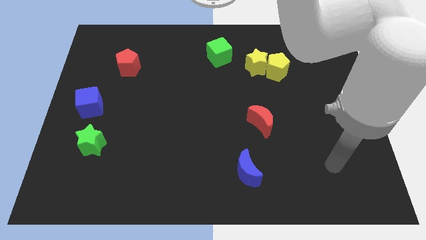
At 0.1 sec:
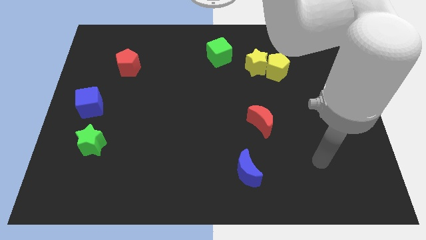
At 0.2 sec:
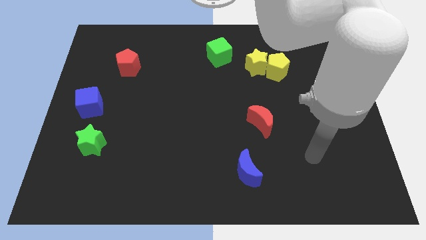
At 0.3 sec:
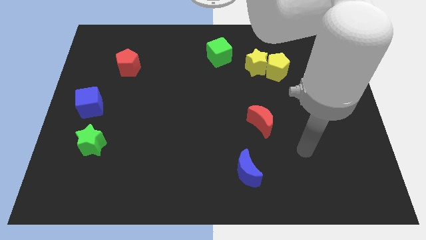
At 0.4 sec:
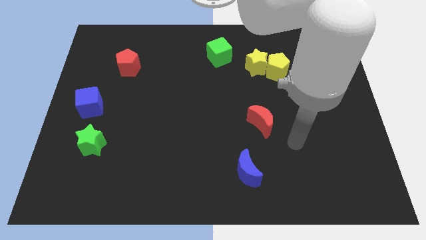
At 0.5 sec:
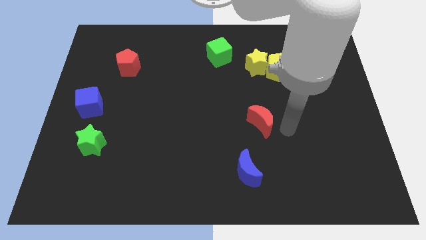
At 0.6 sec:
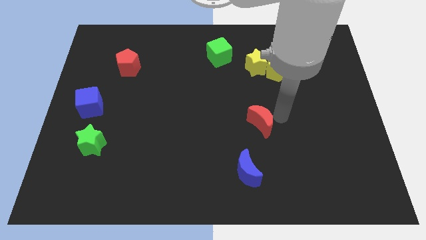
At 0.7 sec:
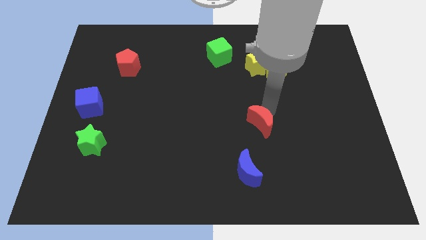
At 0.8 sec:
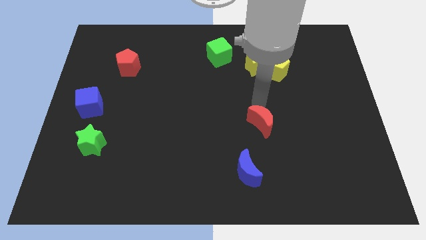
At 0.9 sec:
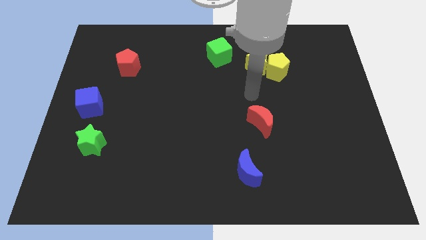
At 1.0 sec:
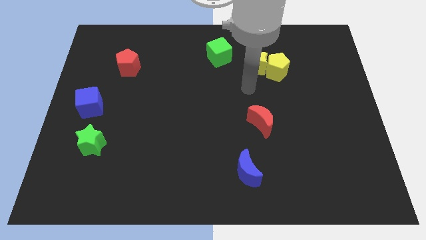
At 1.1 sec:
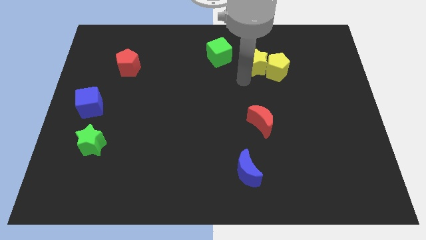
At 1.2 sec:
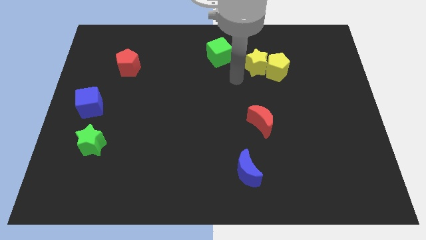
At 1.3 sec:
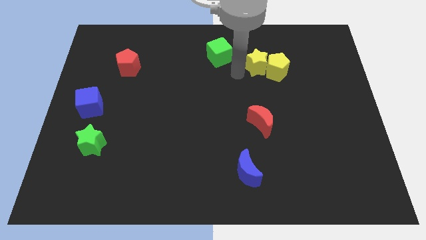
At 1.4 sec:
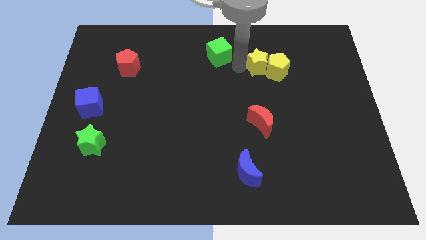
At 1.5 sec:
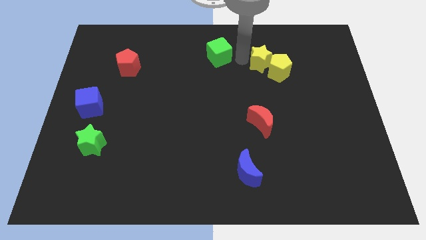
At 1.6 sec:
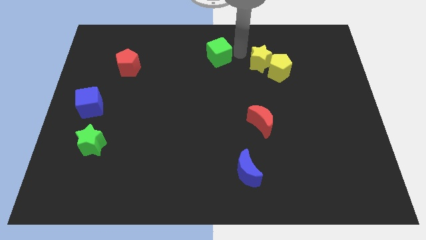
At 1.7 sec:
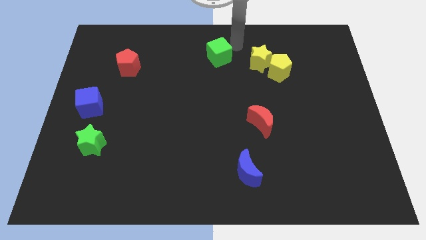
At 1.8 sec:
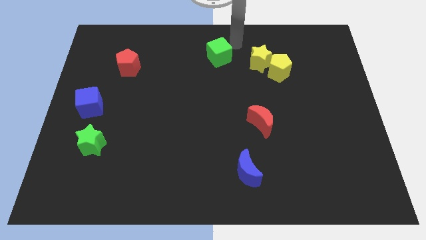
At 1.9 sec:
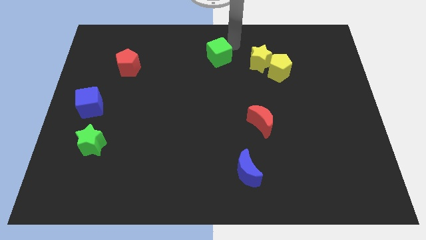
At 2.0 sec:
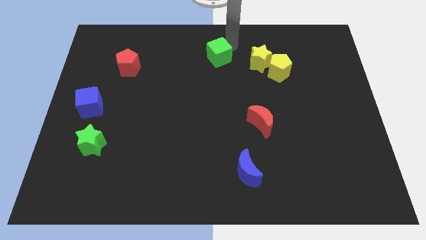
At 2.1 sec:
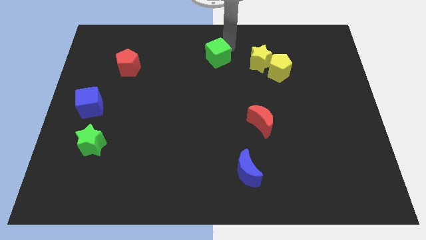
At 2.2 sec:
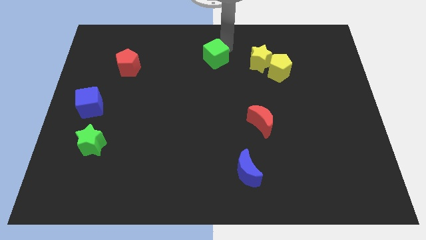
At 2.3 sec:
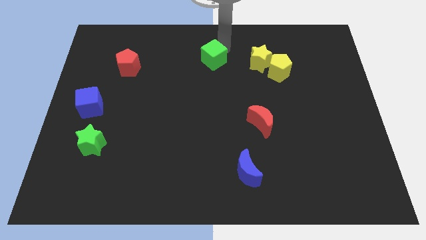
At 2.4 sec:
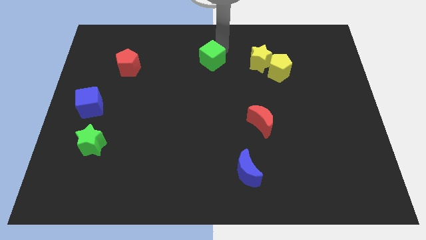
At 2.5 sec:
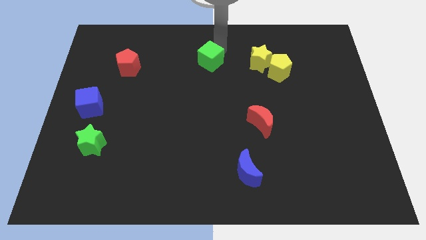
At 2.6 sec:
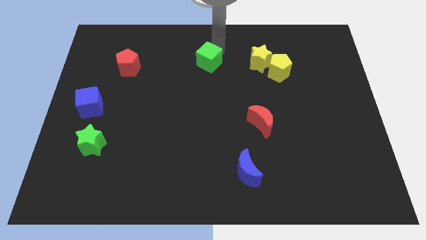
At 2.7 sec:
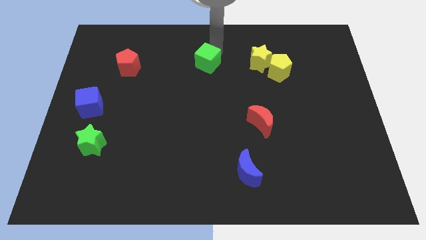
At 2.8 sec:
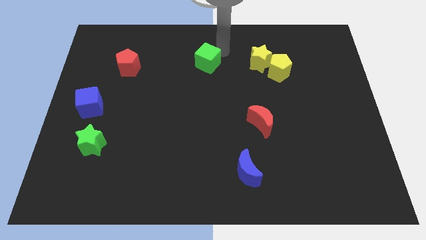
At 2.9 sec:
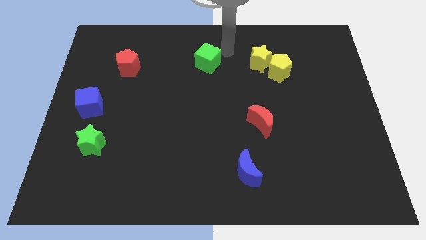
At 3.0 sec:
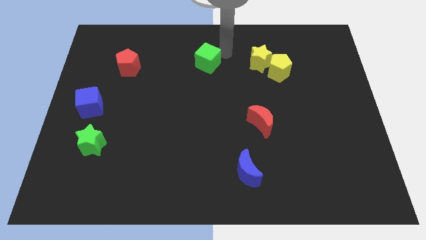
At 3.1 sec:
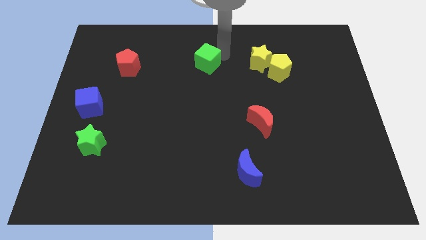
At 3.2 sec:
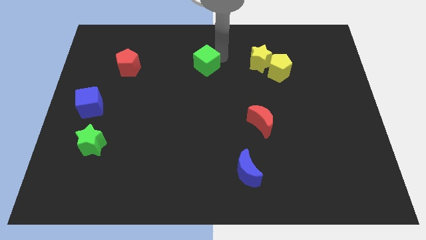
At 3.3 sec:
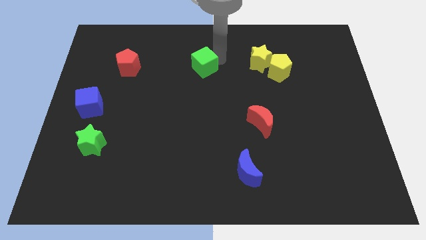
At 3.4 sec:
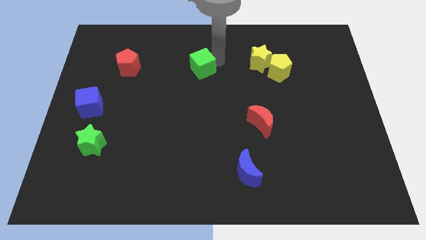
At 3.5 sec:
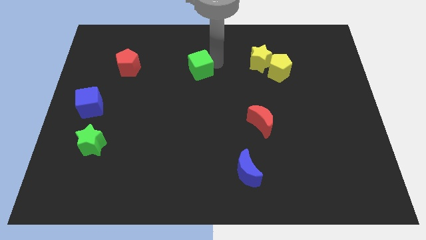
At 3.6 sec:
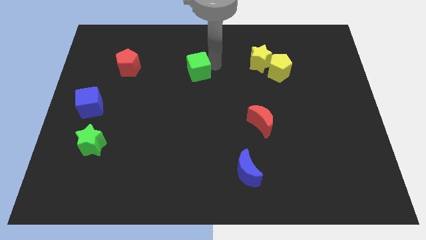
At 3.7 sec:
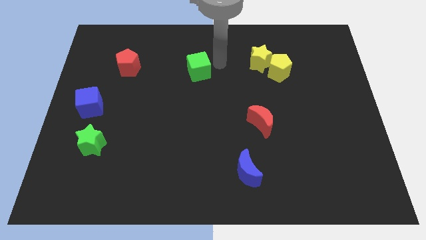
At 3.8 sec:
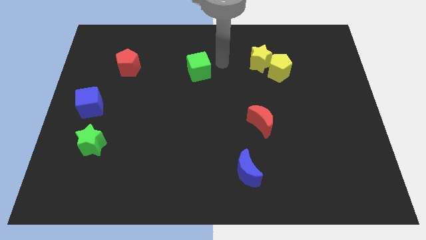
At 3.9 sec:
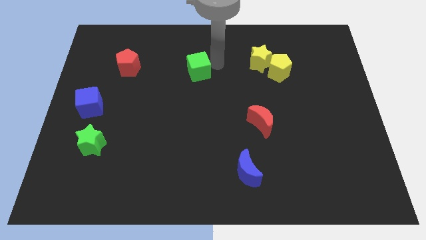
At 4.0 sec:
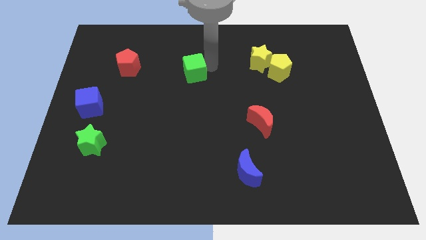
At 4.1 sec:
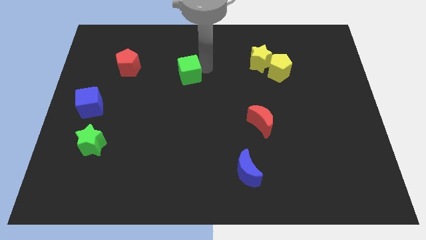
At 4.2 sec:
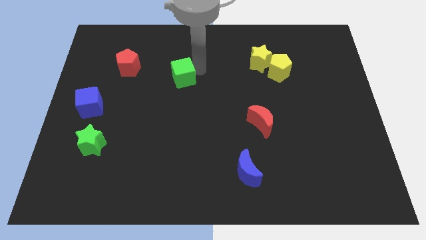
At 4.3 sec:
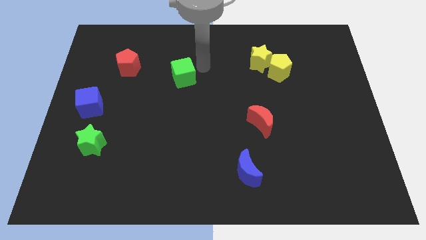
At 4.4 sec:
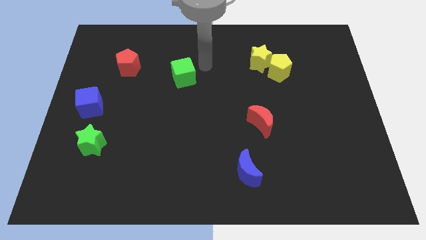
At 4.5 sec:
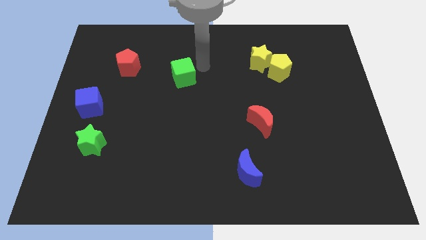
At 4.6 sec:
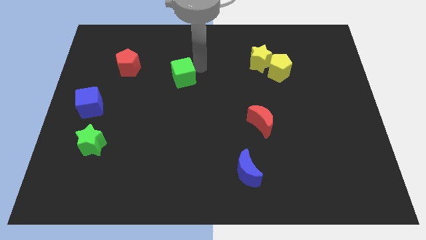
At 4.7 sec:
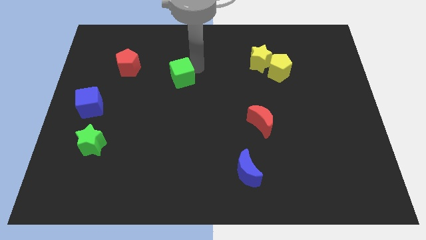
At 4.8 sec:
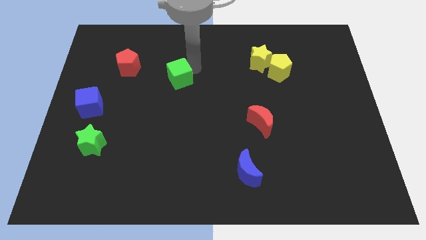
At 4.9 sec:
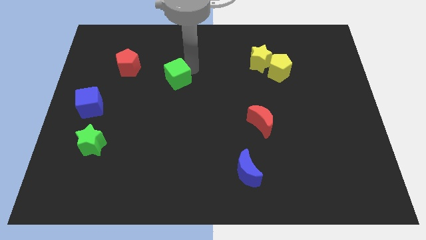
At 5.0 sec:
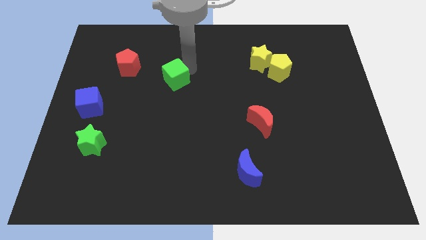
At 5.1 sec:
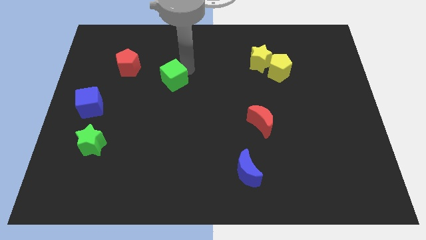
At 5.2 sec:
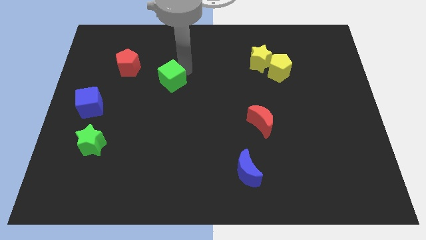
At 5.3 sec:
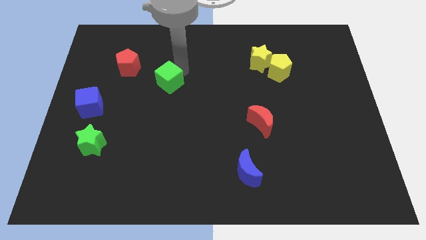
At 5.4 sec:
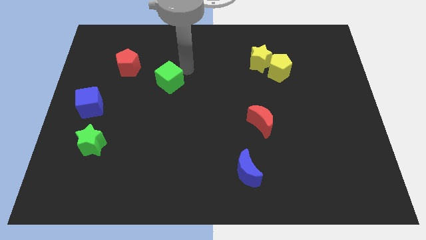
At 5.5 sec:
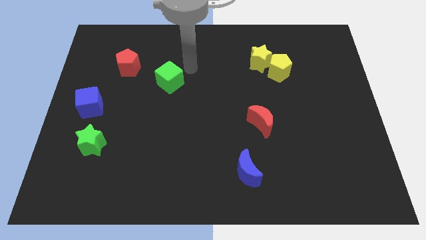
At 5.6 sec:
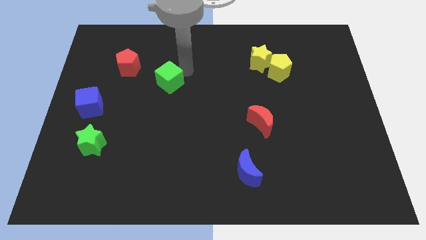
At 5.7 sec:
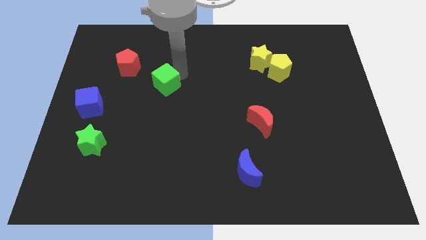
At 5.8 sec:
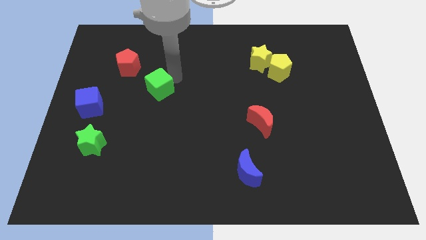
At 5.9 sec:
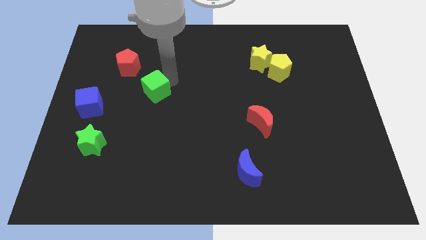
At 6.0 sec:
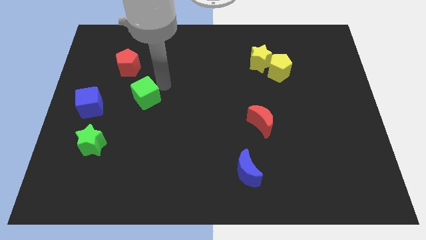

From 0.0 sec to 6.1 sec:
move the green cube downwards and then to the left

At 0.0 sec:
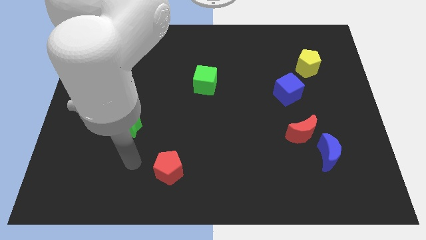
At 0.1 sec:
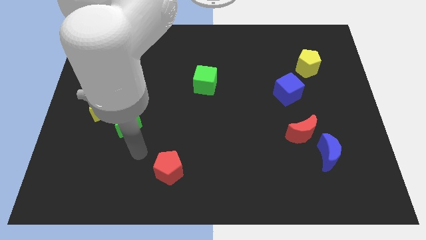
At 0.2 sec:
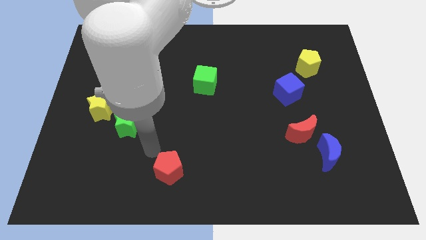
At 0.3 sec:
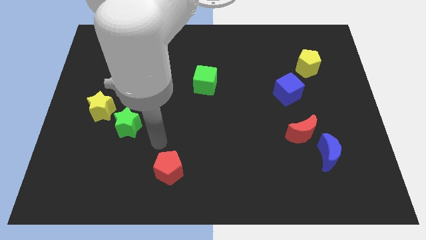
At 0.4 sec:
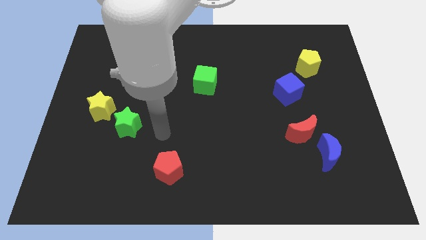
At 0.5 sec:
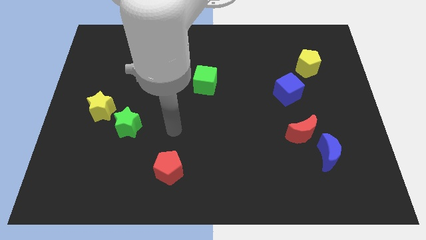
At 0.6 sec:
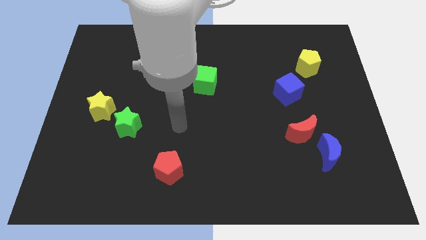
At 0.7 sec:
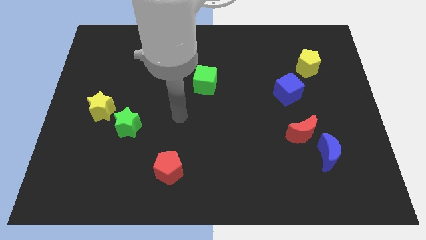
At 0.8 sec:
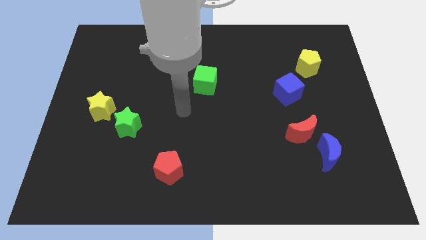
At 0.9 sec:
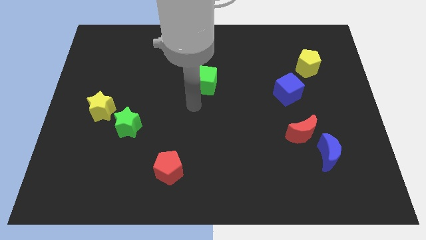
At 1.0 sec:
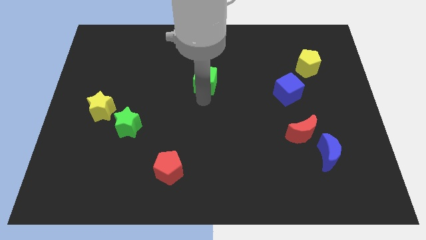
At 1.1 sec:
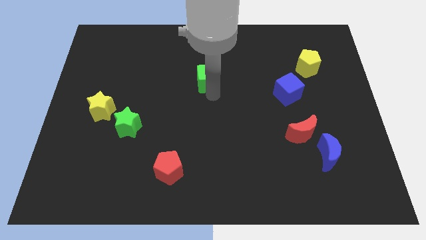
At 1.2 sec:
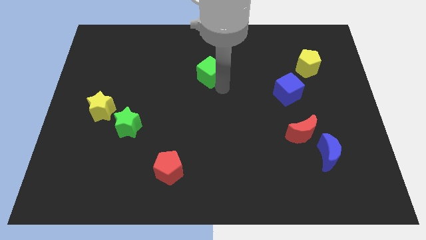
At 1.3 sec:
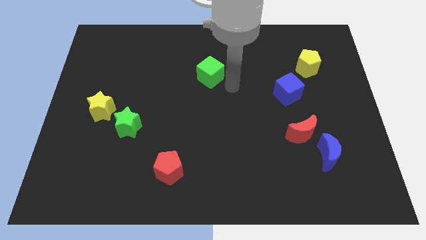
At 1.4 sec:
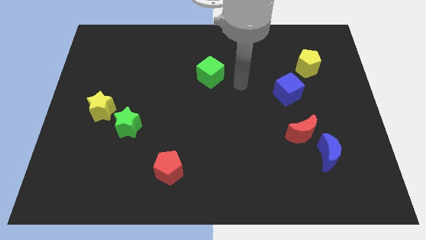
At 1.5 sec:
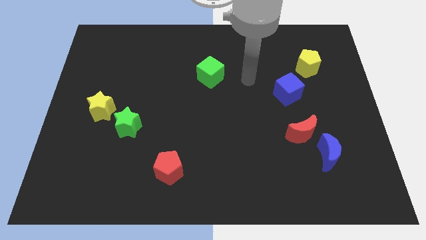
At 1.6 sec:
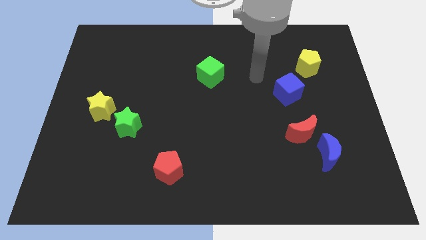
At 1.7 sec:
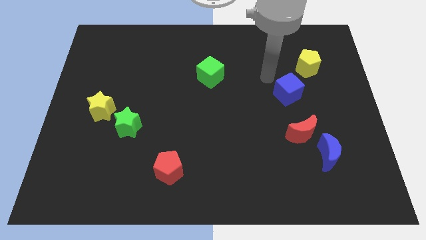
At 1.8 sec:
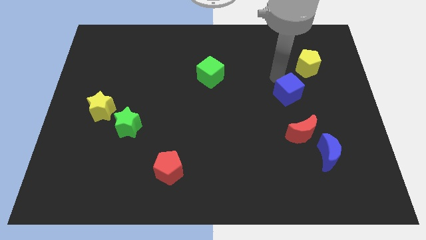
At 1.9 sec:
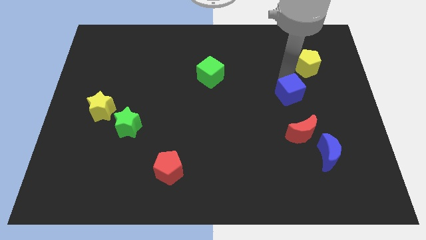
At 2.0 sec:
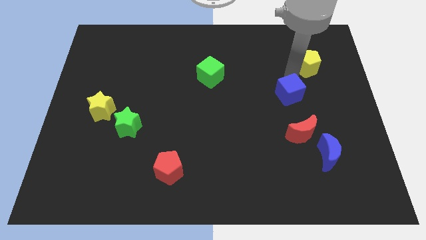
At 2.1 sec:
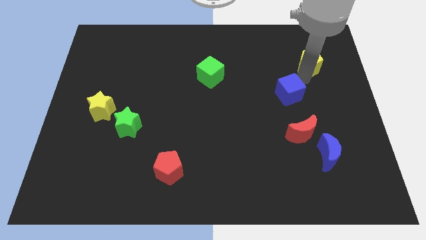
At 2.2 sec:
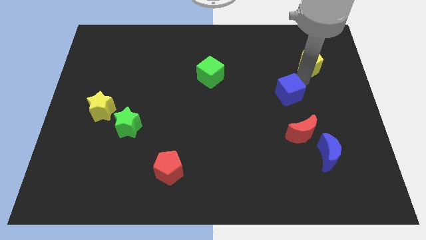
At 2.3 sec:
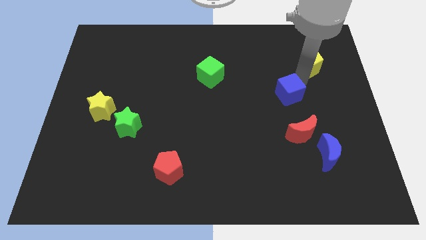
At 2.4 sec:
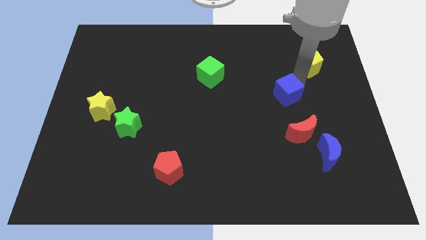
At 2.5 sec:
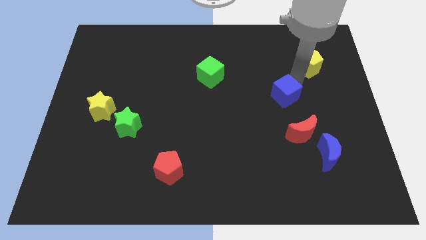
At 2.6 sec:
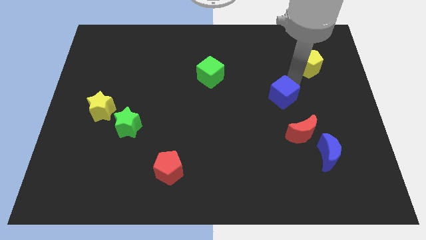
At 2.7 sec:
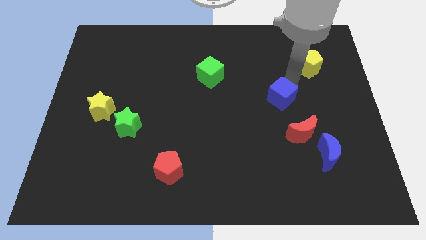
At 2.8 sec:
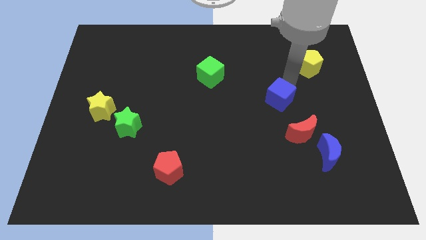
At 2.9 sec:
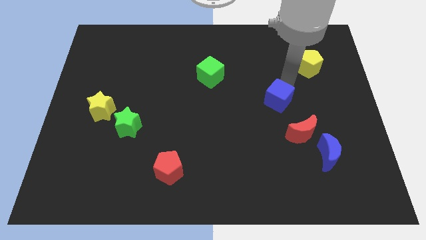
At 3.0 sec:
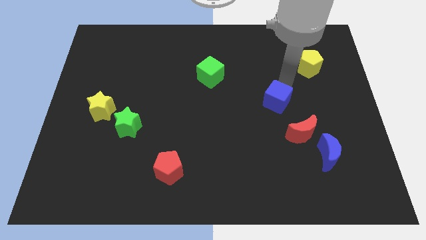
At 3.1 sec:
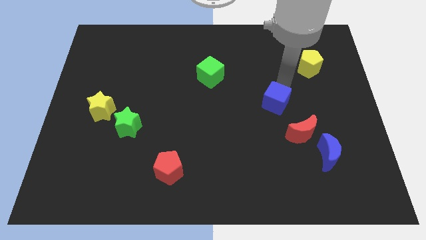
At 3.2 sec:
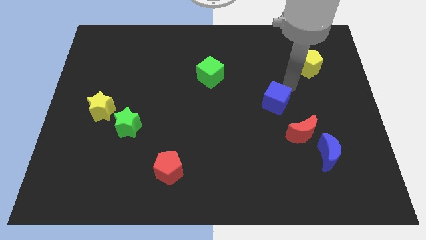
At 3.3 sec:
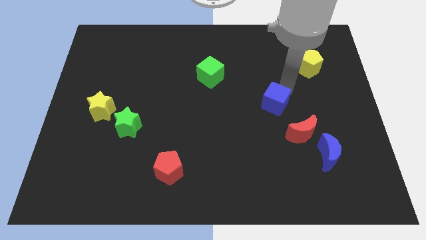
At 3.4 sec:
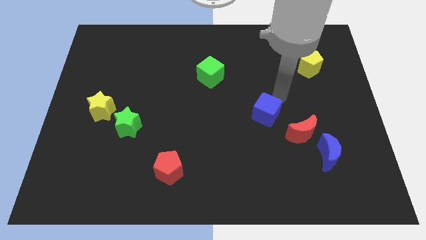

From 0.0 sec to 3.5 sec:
move the blue cube downwards and left a little bit
